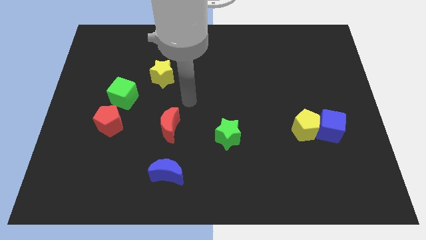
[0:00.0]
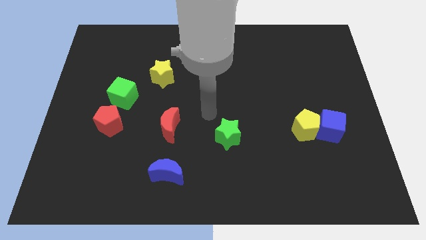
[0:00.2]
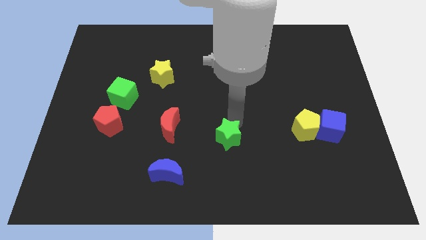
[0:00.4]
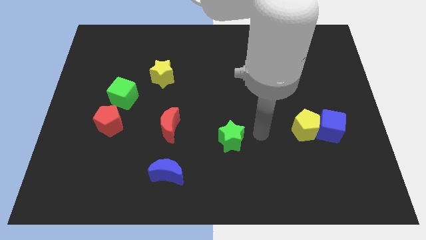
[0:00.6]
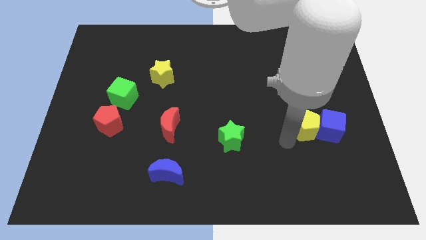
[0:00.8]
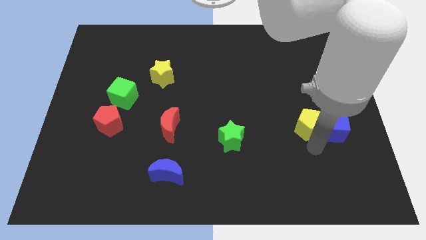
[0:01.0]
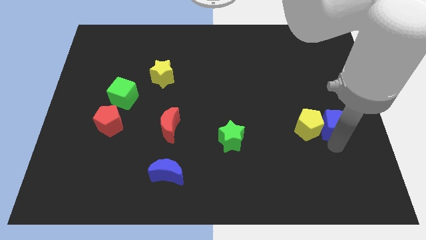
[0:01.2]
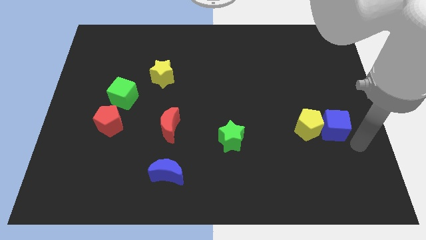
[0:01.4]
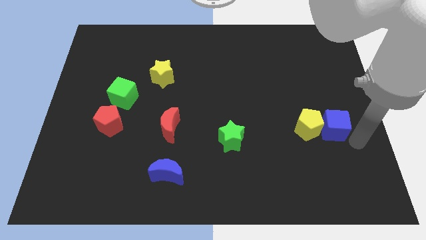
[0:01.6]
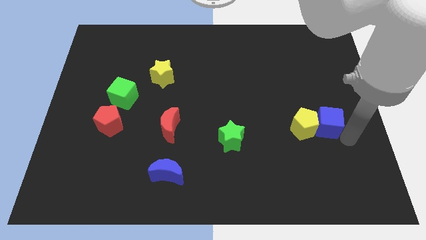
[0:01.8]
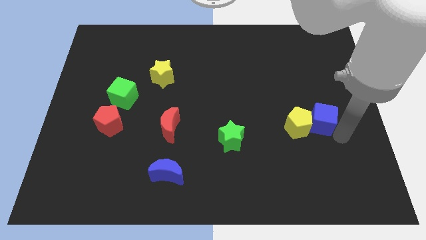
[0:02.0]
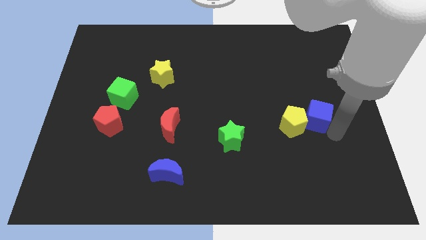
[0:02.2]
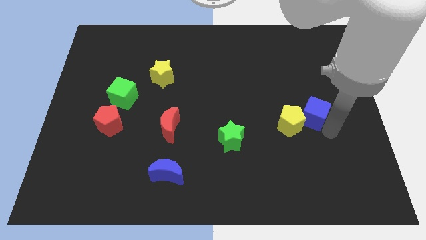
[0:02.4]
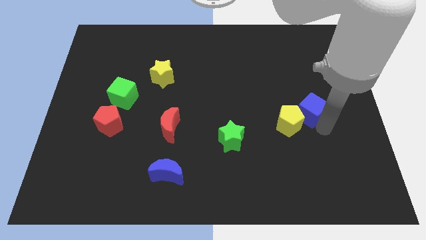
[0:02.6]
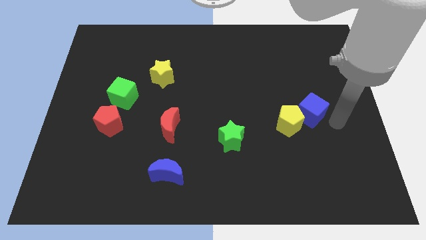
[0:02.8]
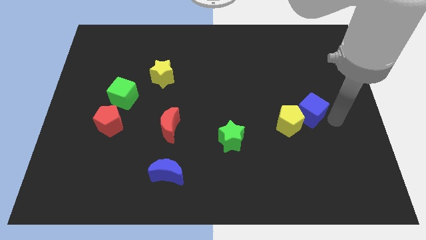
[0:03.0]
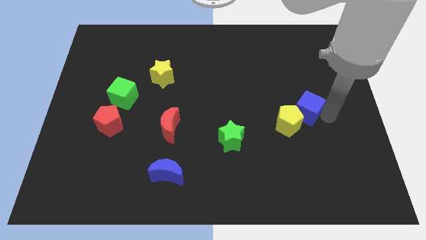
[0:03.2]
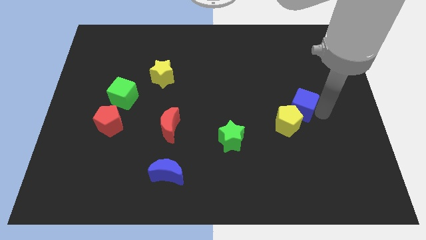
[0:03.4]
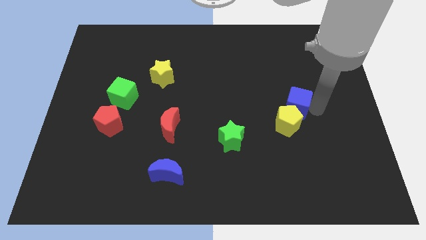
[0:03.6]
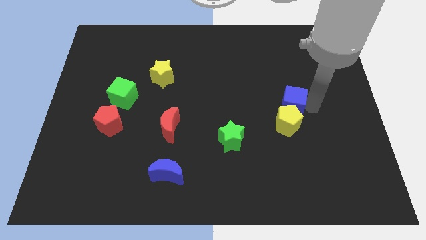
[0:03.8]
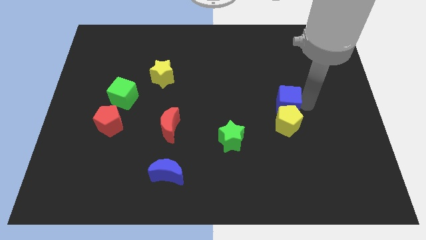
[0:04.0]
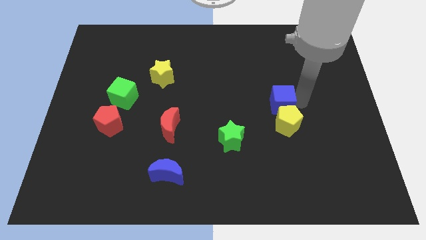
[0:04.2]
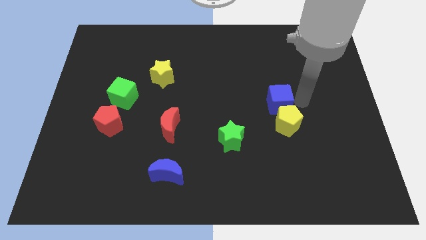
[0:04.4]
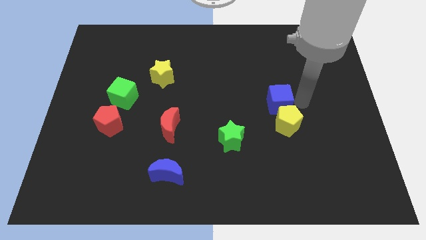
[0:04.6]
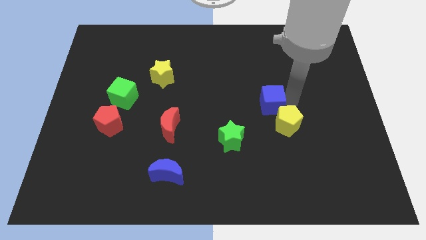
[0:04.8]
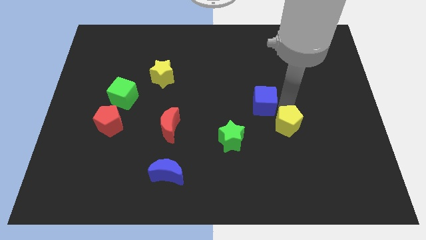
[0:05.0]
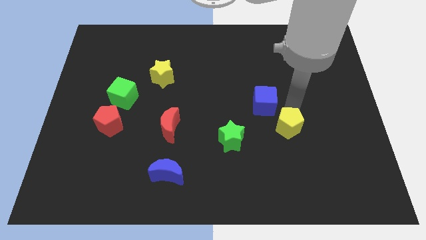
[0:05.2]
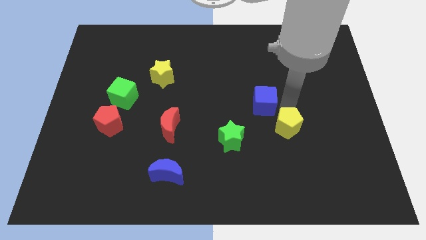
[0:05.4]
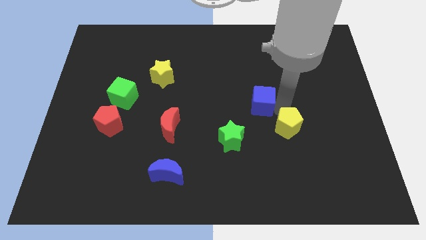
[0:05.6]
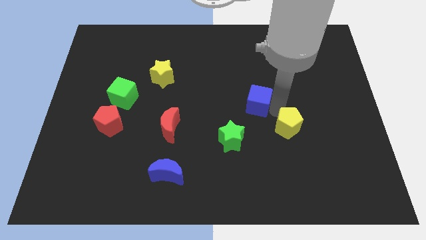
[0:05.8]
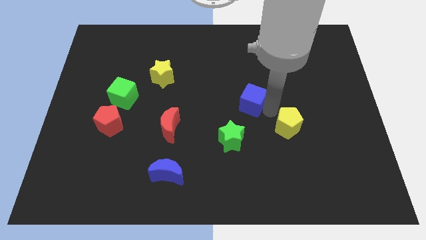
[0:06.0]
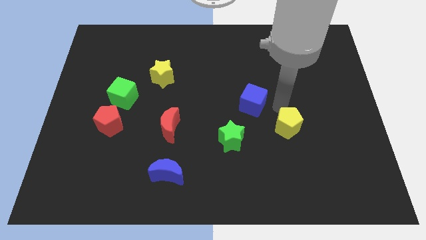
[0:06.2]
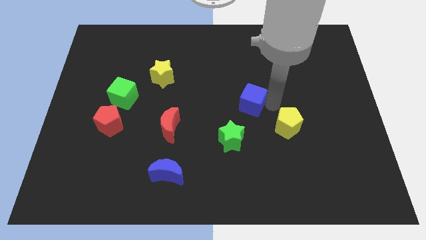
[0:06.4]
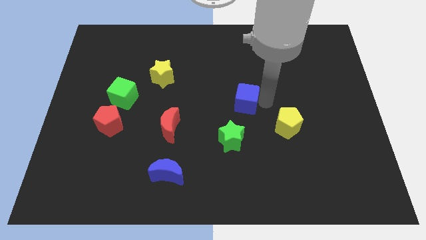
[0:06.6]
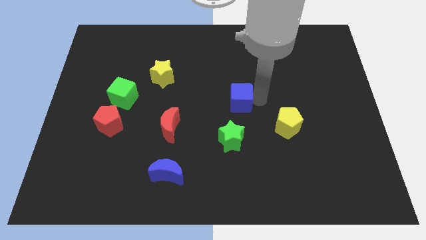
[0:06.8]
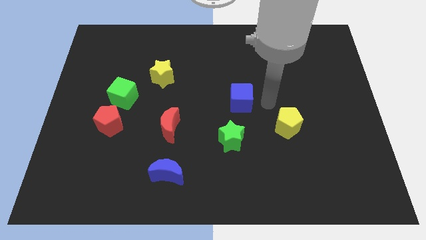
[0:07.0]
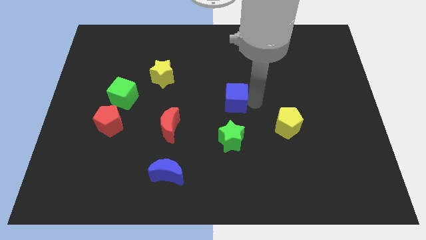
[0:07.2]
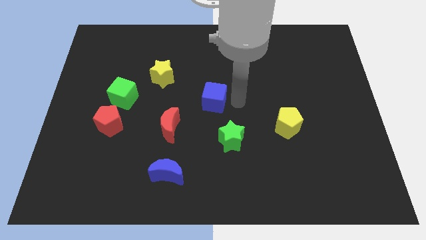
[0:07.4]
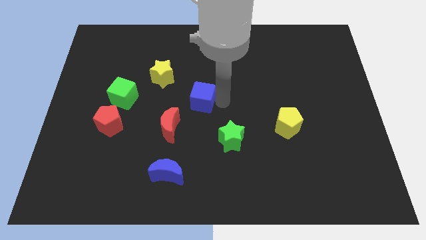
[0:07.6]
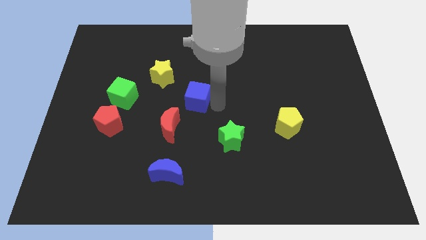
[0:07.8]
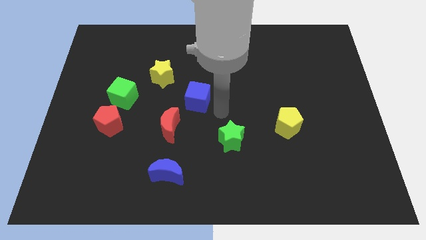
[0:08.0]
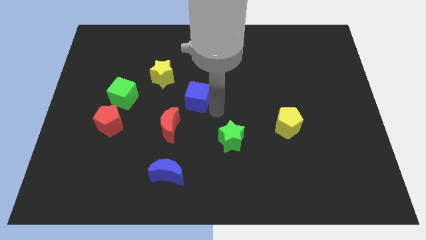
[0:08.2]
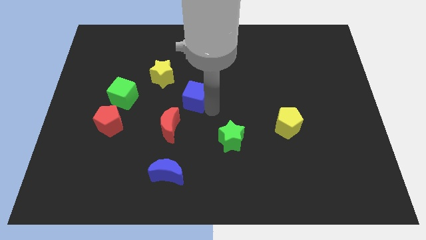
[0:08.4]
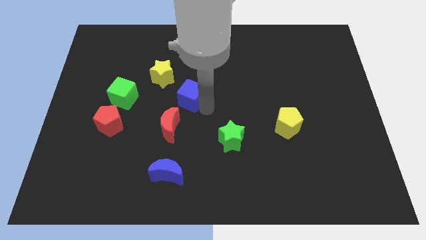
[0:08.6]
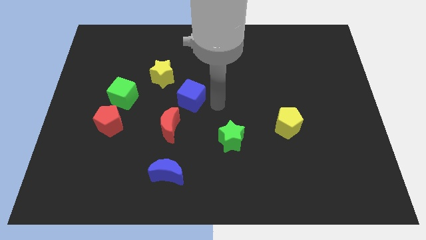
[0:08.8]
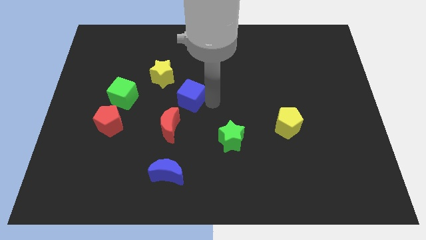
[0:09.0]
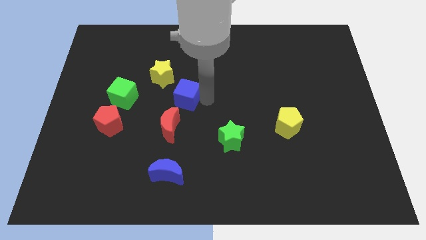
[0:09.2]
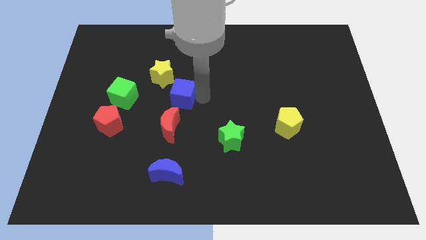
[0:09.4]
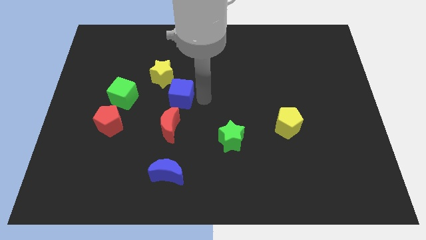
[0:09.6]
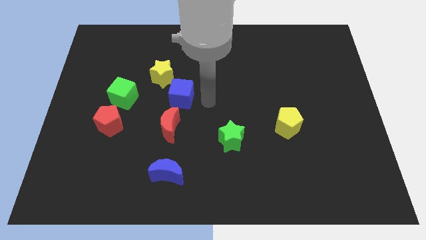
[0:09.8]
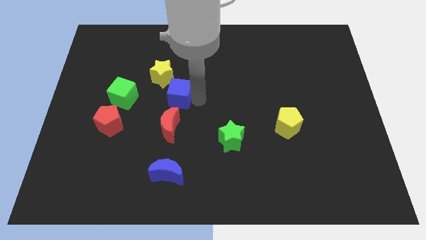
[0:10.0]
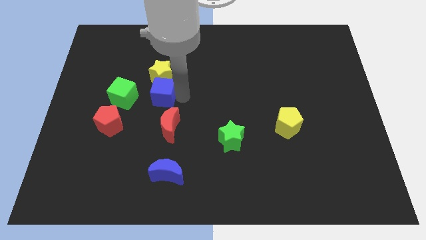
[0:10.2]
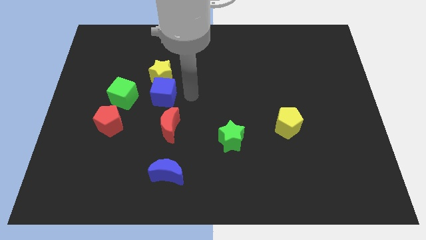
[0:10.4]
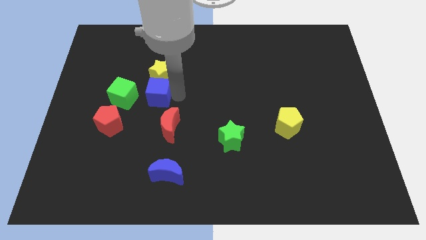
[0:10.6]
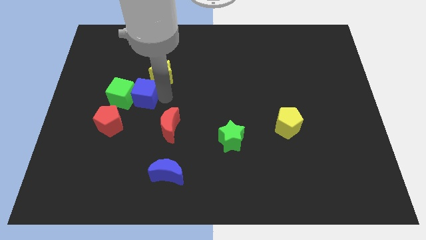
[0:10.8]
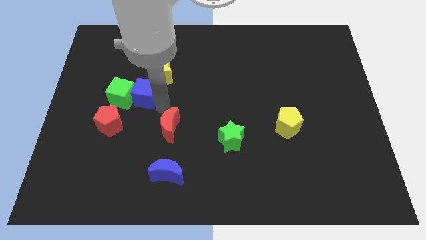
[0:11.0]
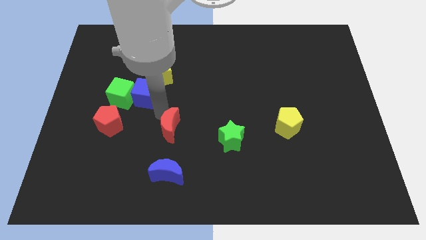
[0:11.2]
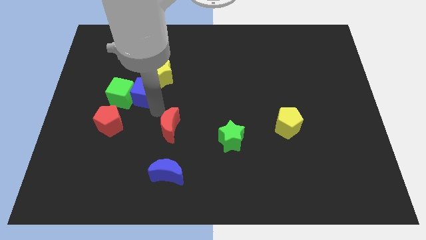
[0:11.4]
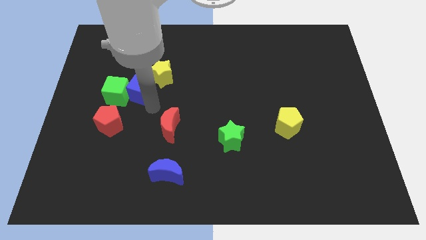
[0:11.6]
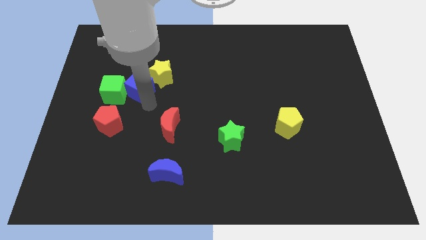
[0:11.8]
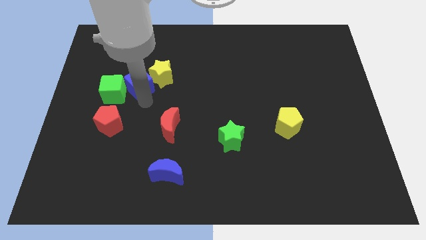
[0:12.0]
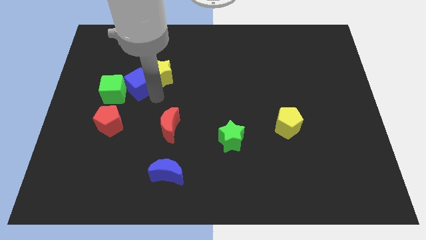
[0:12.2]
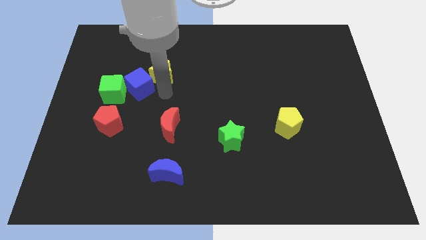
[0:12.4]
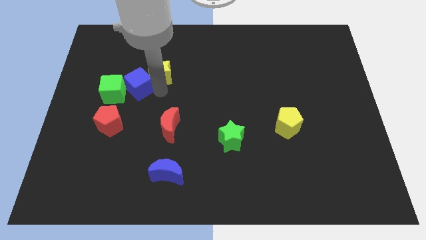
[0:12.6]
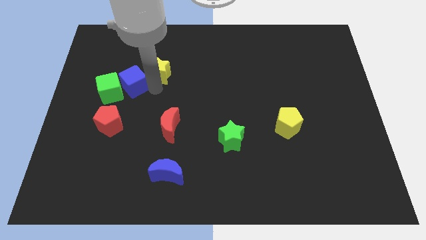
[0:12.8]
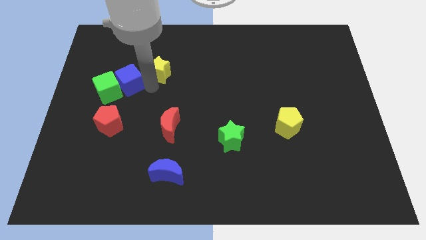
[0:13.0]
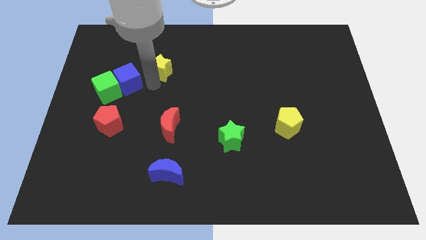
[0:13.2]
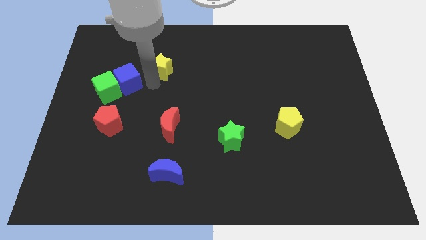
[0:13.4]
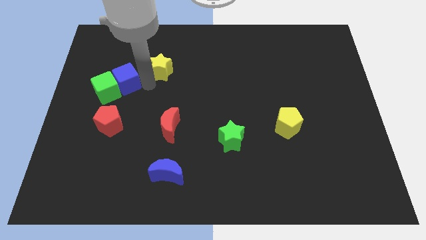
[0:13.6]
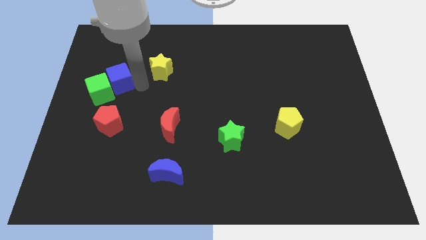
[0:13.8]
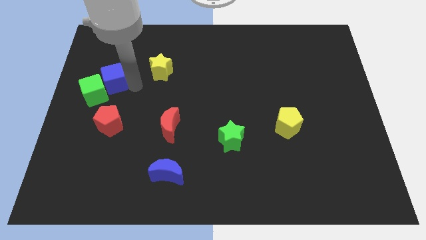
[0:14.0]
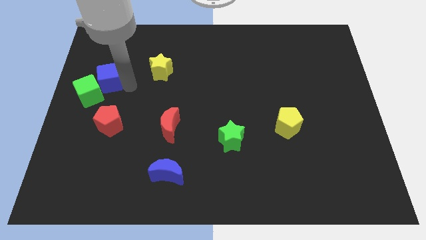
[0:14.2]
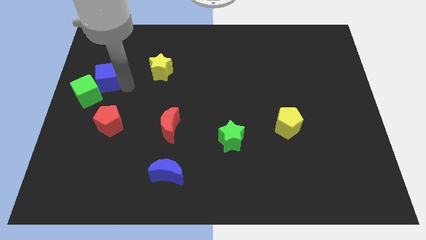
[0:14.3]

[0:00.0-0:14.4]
push the blue cube to the left side
